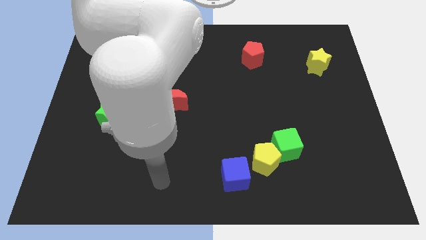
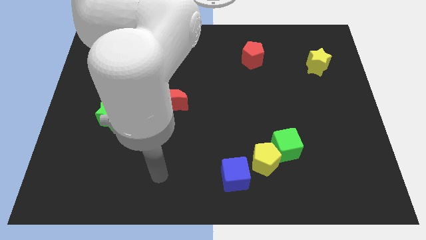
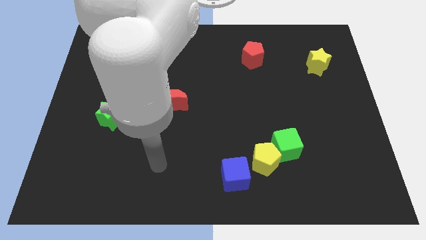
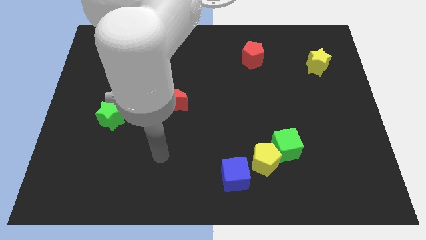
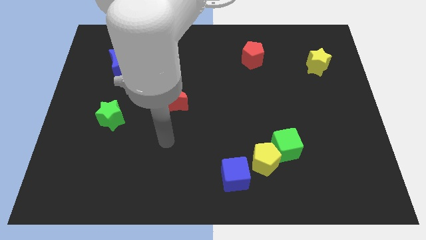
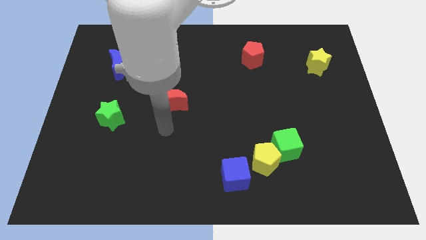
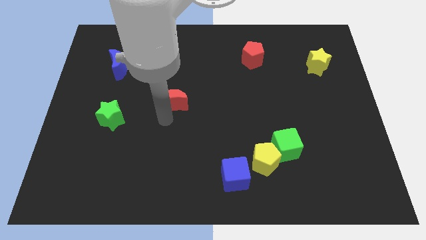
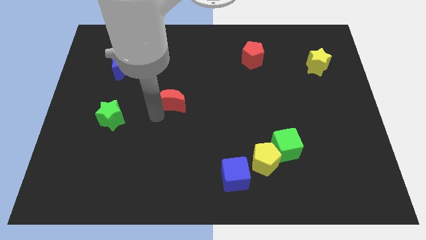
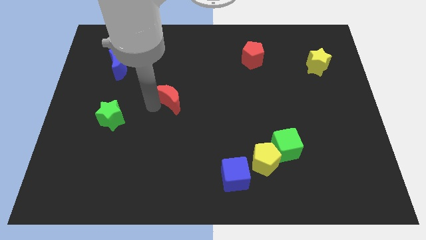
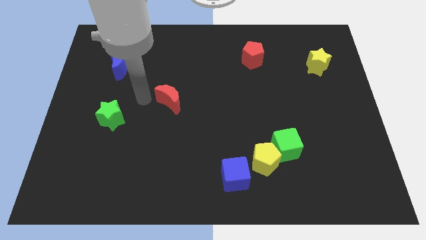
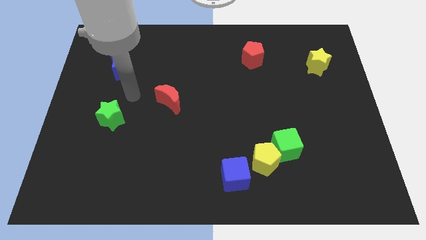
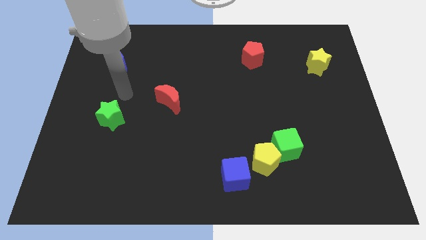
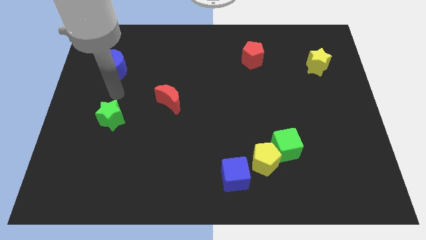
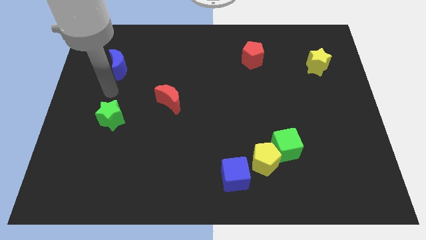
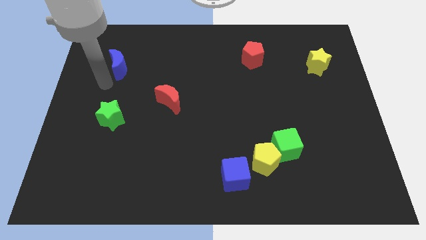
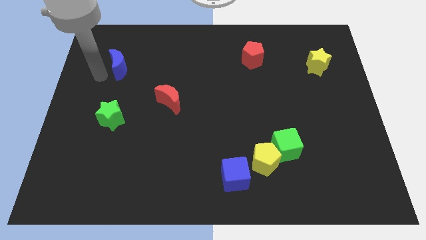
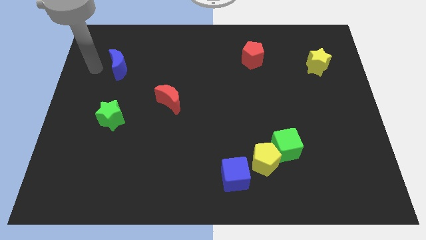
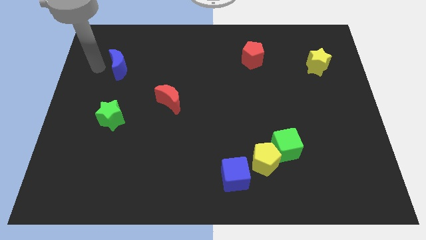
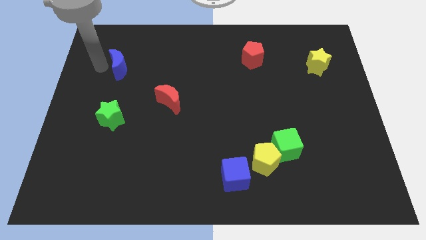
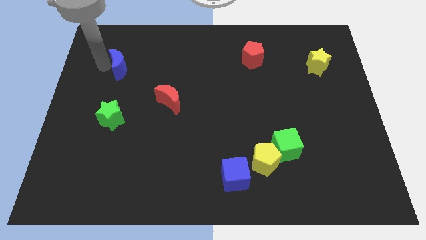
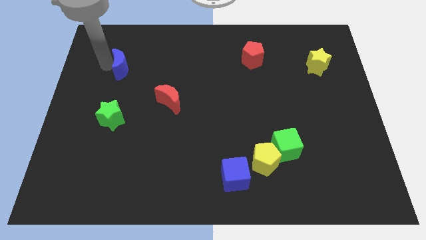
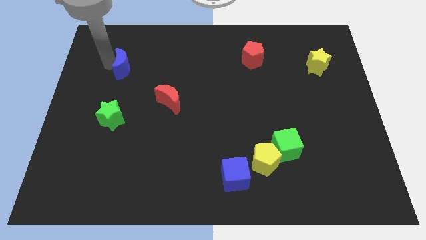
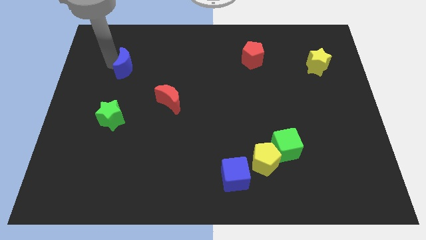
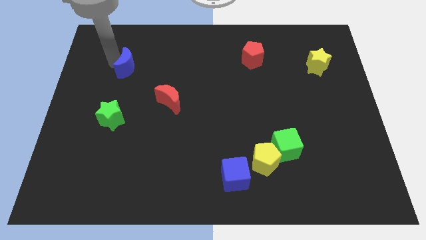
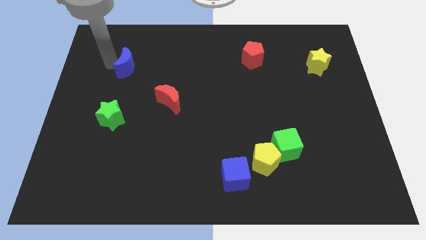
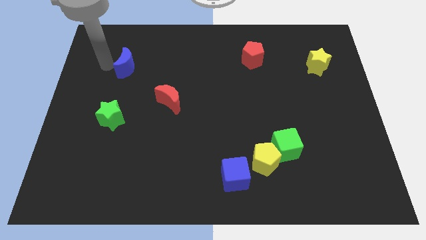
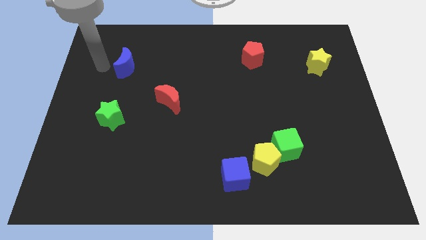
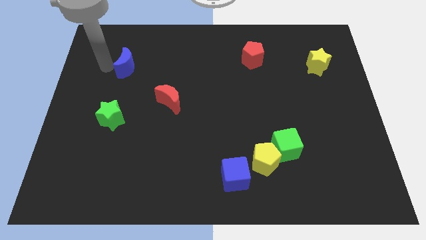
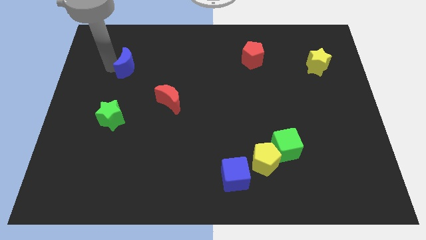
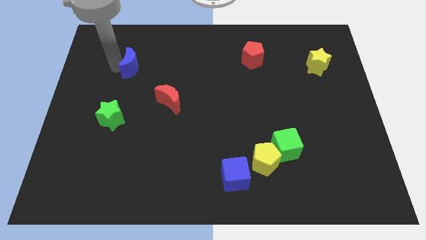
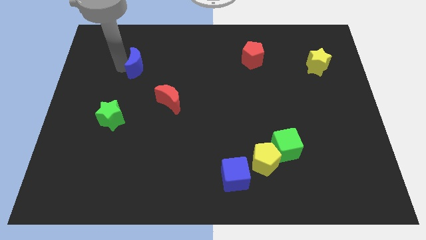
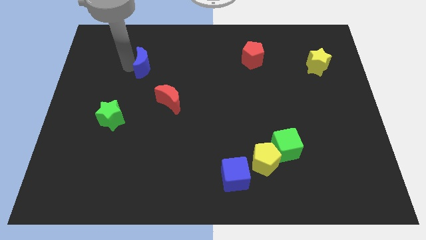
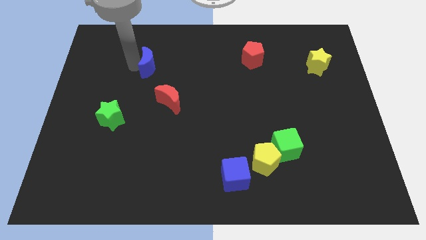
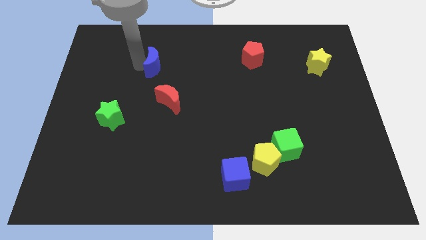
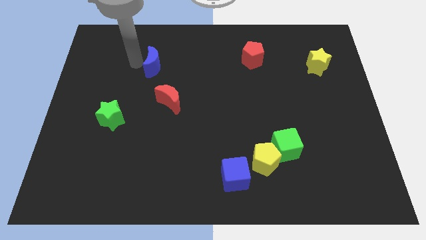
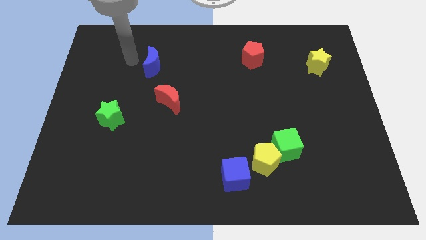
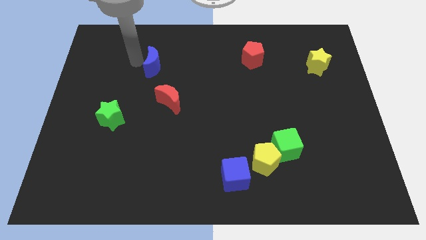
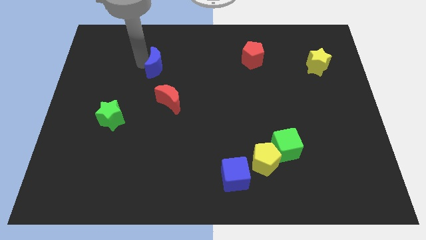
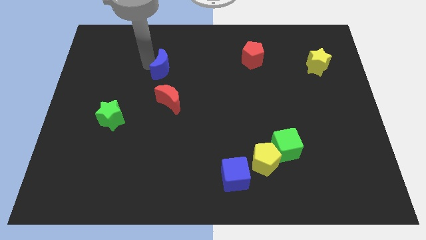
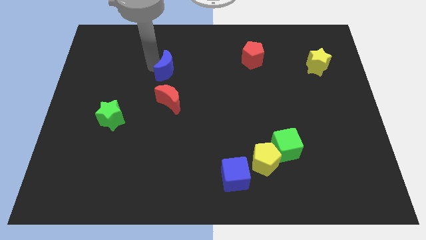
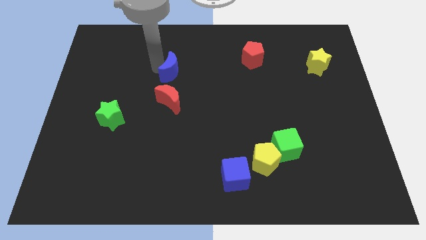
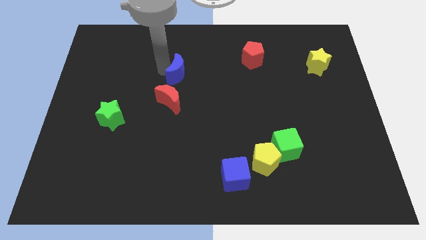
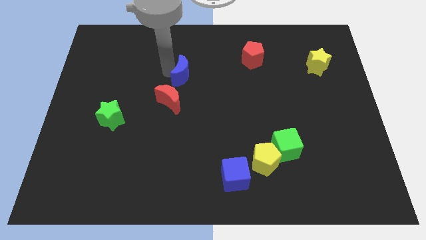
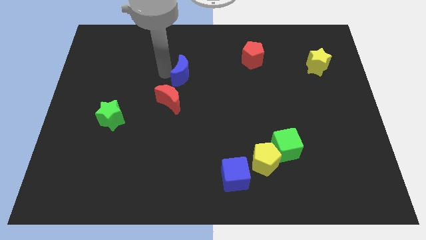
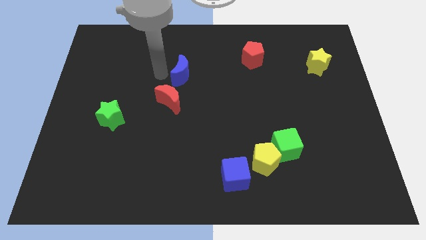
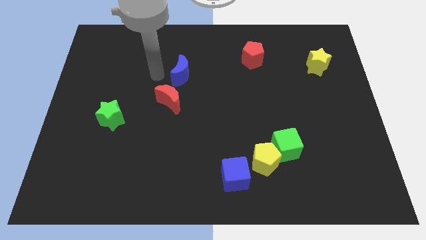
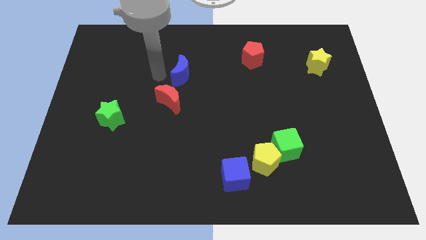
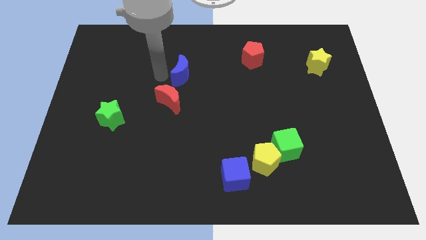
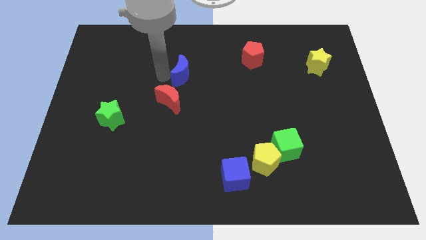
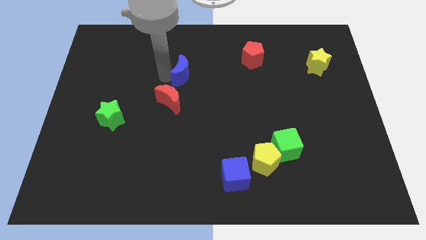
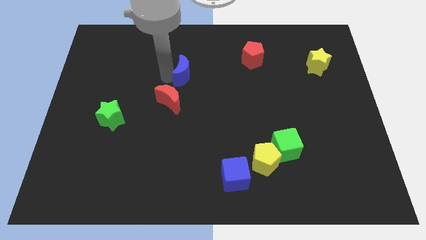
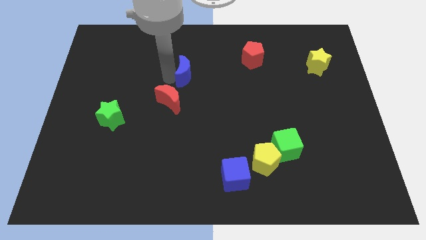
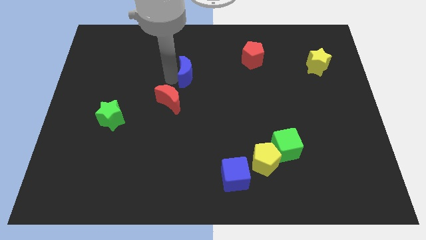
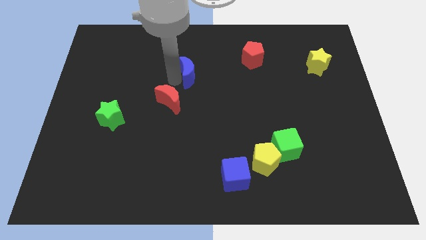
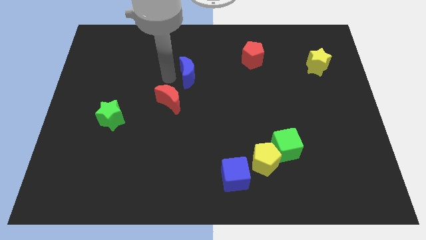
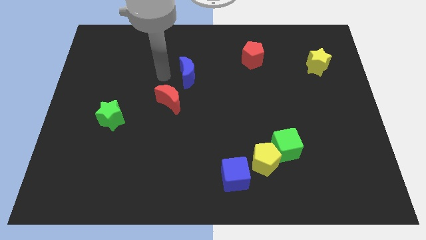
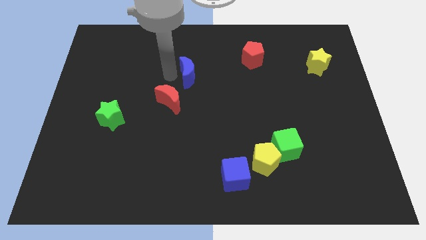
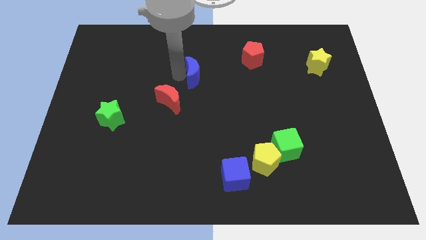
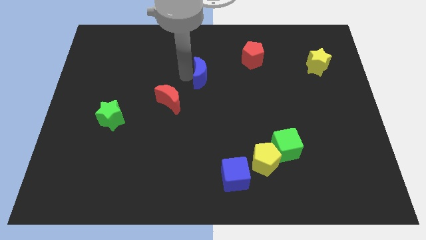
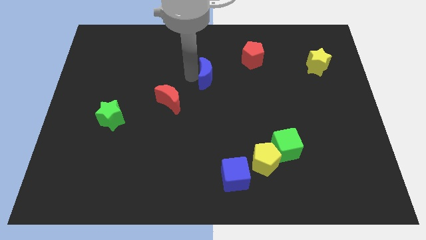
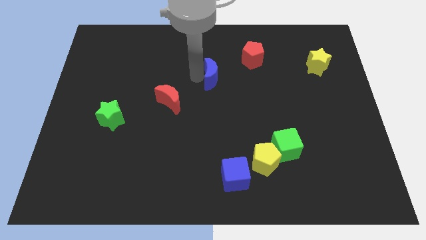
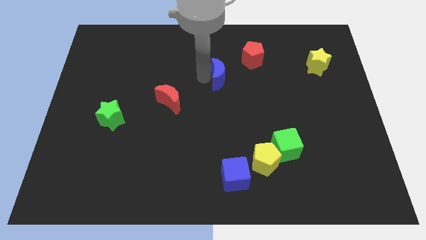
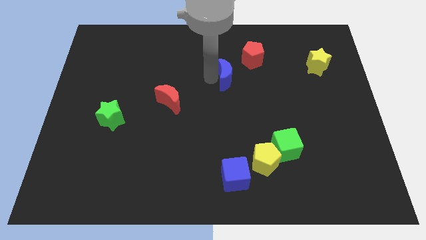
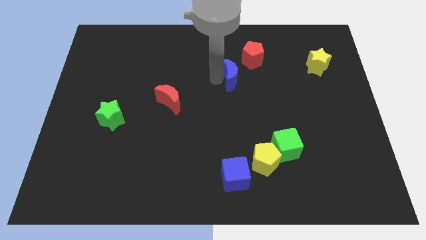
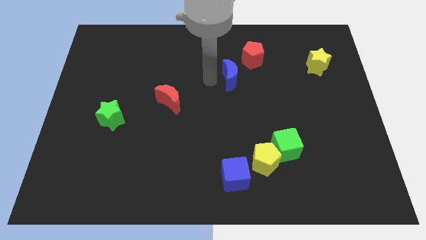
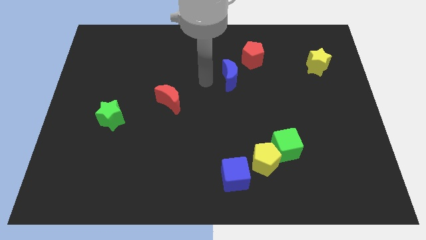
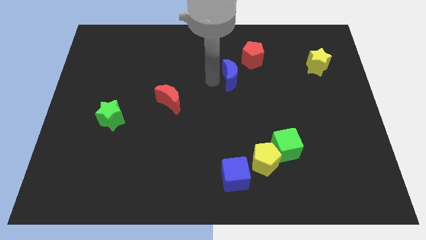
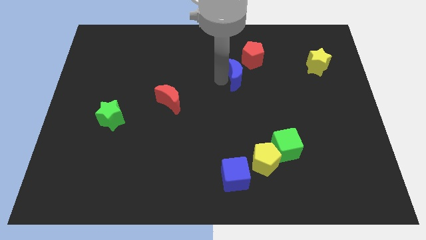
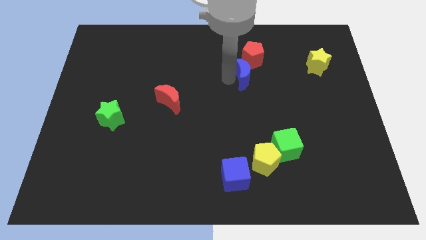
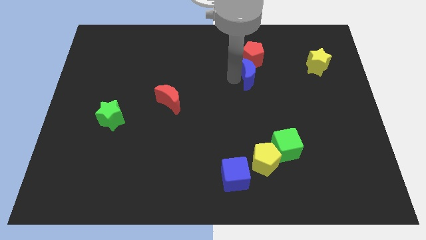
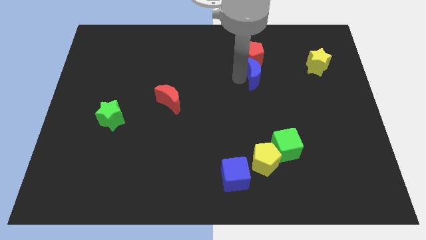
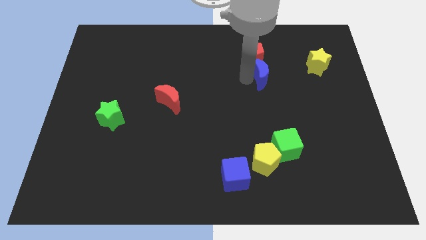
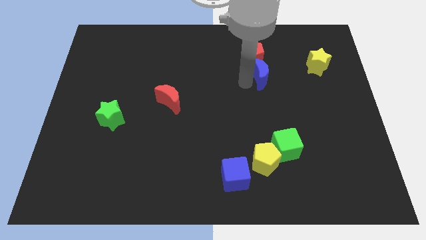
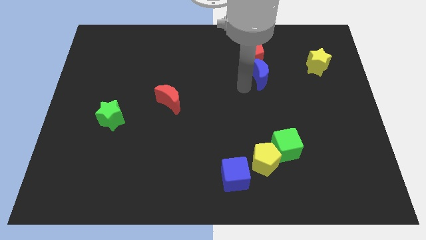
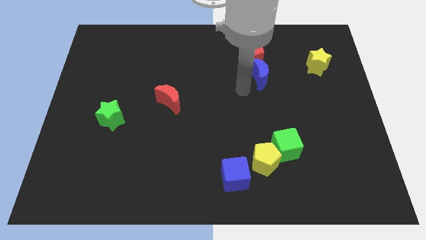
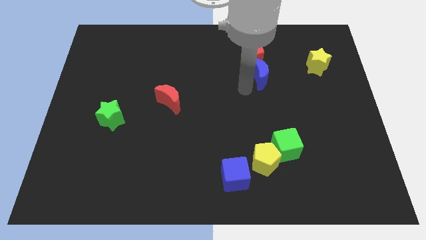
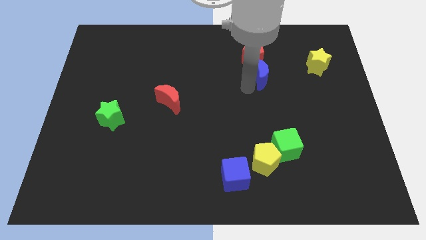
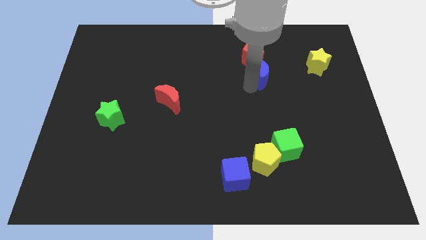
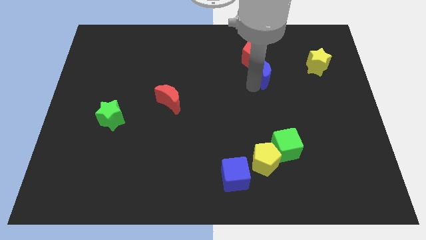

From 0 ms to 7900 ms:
push the blue moon left of the yellow star

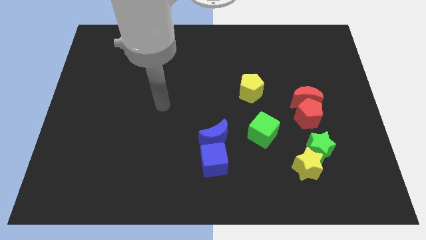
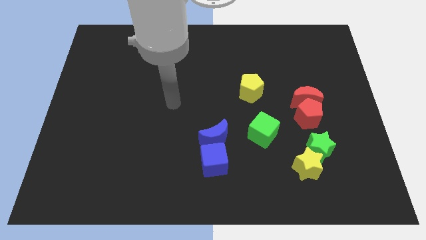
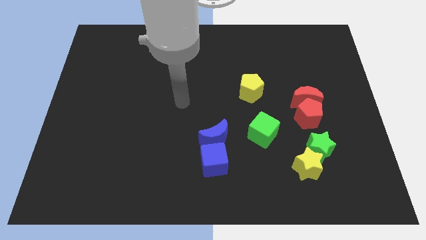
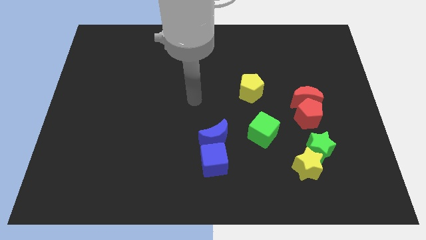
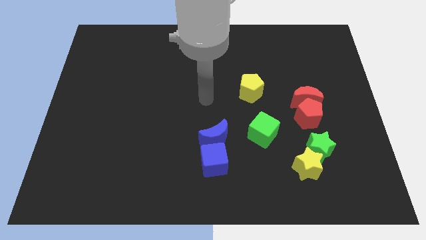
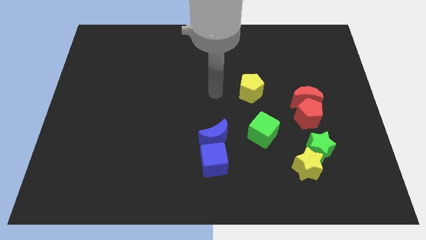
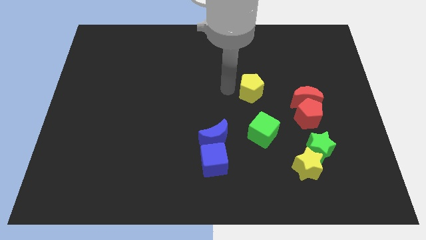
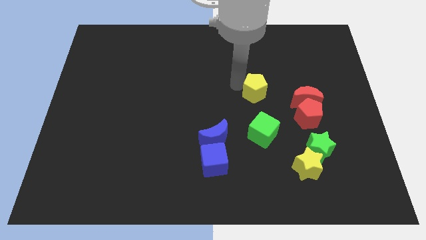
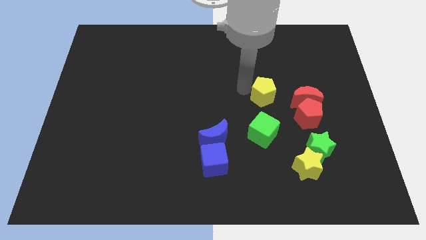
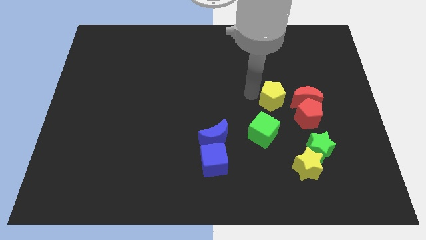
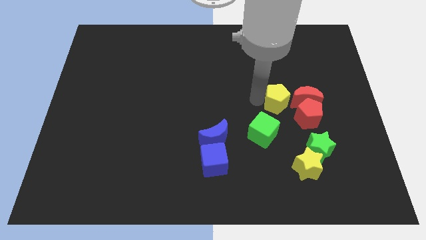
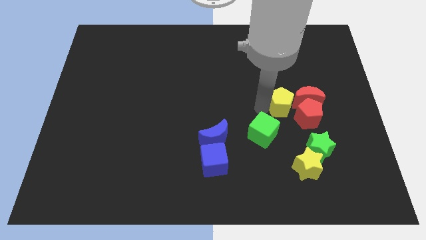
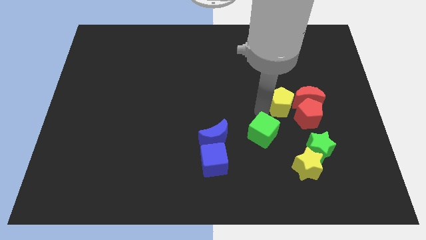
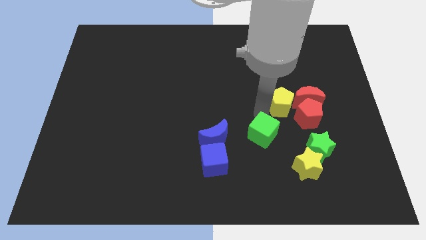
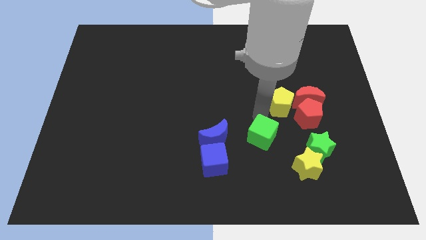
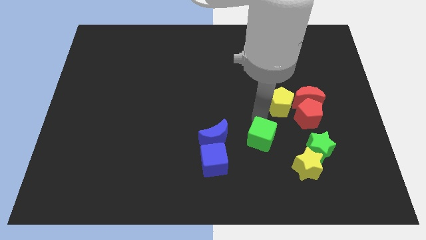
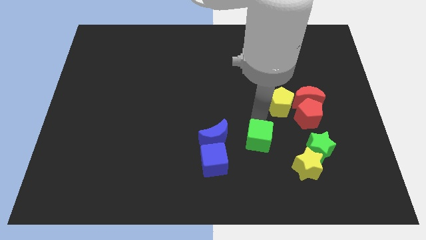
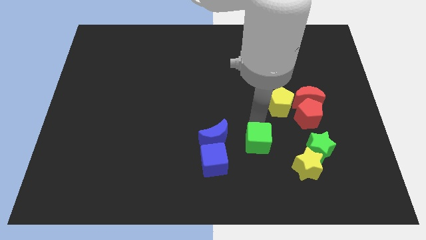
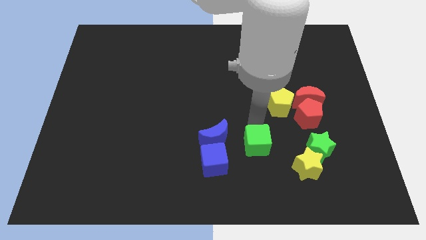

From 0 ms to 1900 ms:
push the green cube right of the blue cube
